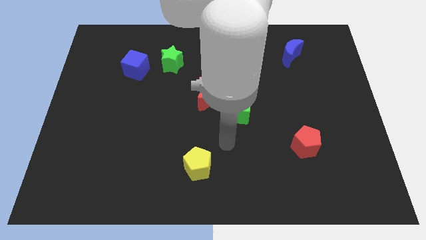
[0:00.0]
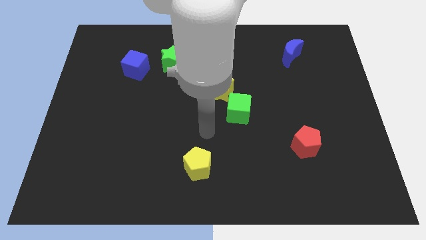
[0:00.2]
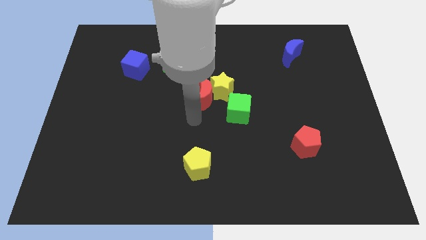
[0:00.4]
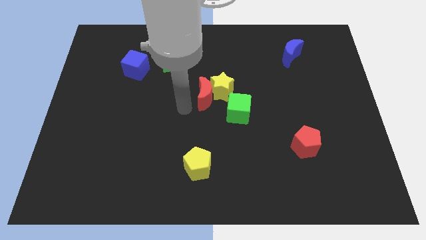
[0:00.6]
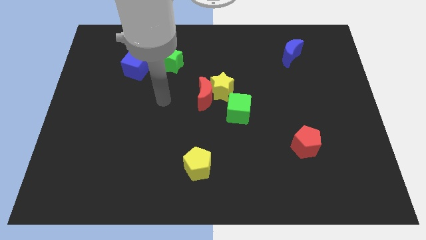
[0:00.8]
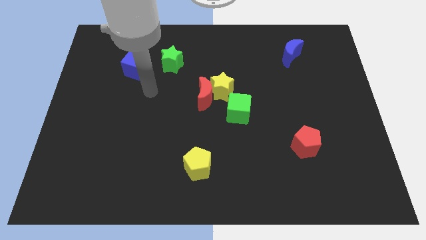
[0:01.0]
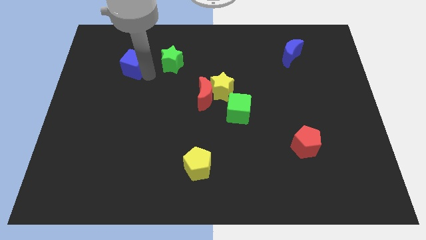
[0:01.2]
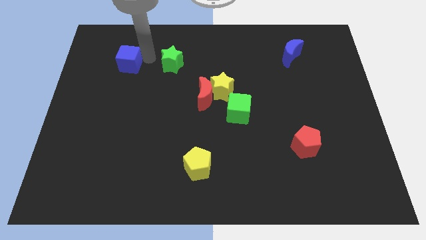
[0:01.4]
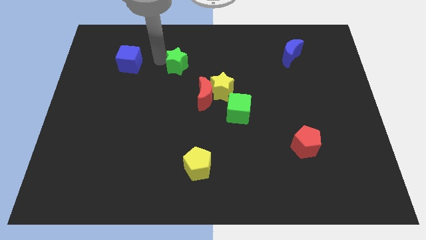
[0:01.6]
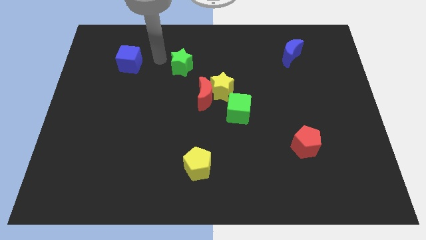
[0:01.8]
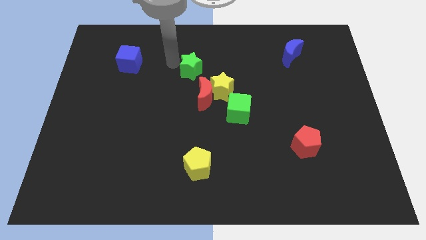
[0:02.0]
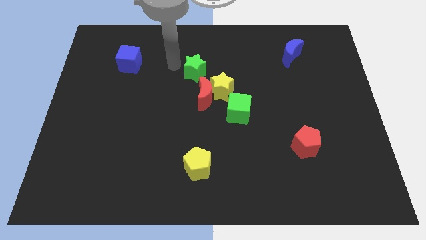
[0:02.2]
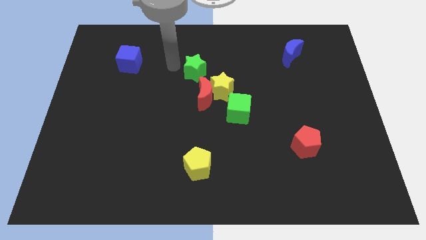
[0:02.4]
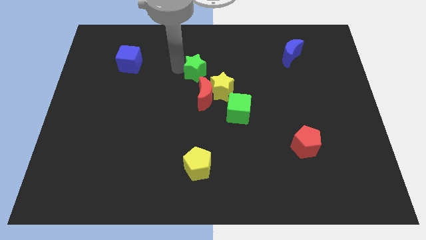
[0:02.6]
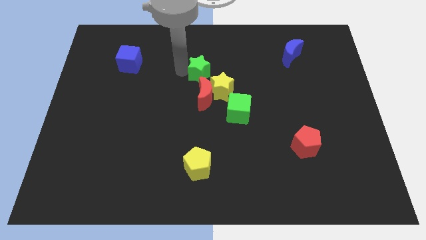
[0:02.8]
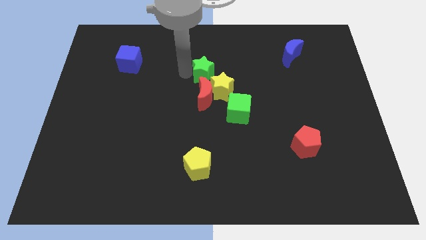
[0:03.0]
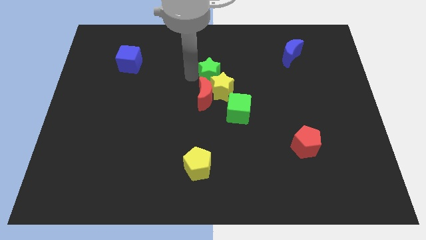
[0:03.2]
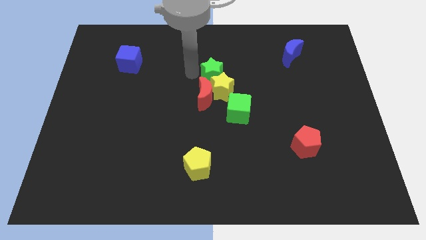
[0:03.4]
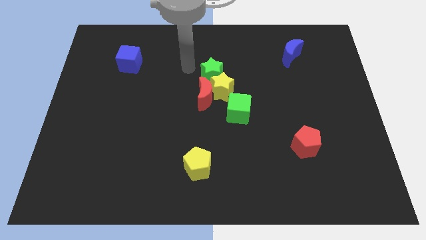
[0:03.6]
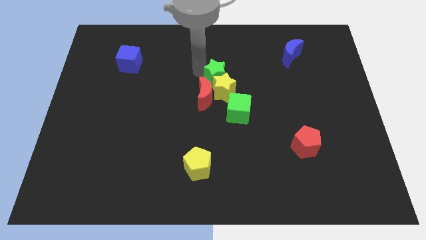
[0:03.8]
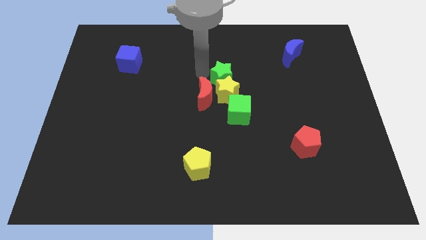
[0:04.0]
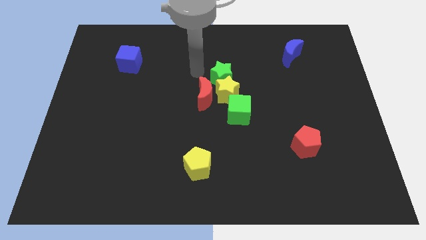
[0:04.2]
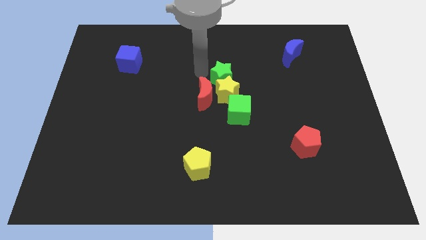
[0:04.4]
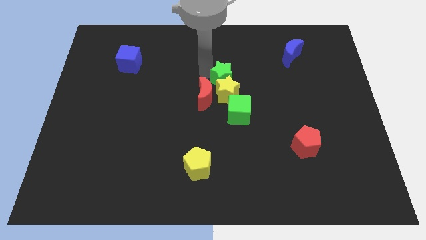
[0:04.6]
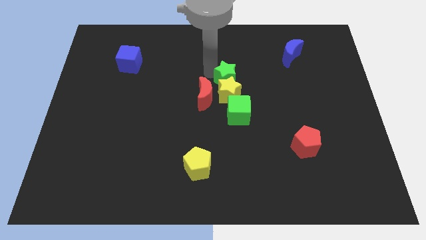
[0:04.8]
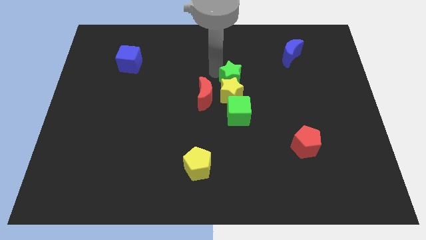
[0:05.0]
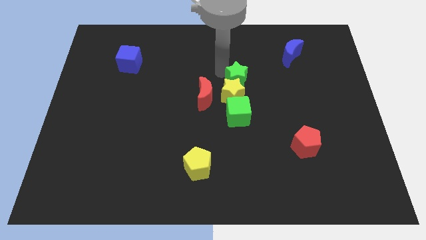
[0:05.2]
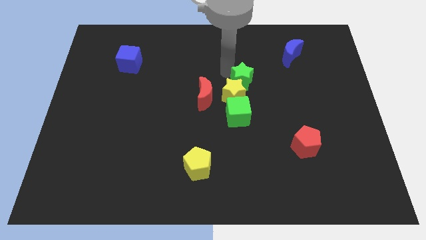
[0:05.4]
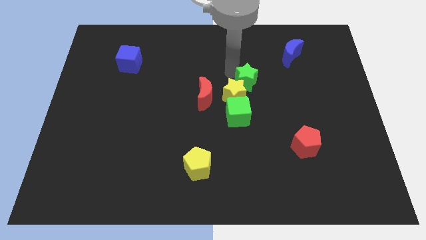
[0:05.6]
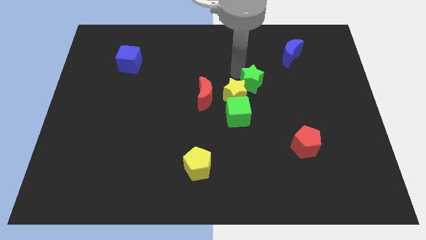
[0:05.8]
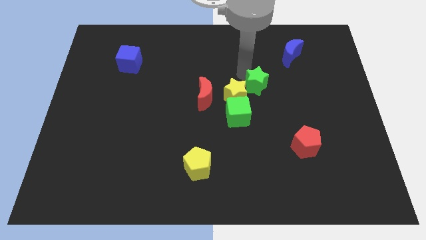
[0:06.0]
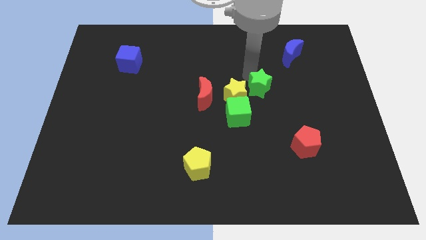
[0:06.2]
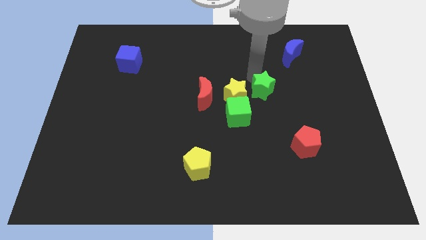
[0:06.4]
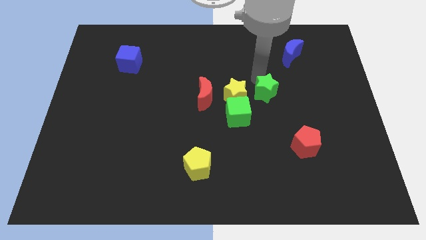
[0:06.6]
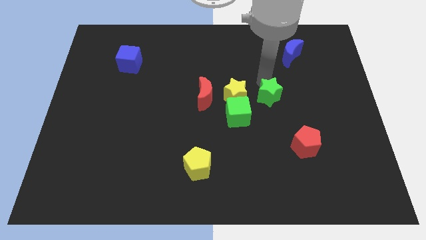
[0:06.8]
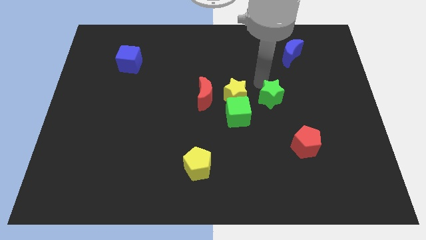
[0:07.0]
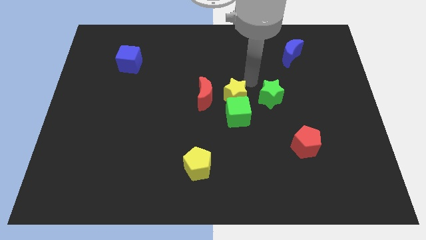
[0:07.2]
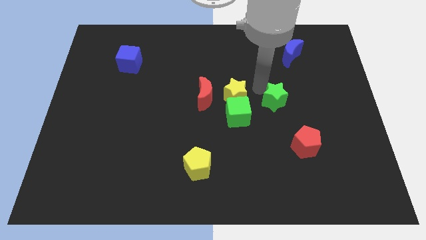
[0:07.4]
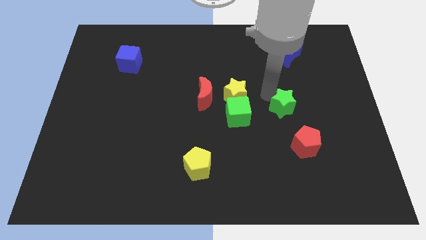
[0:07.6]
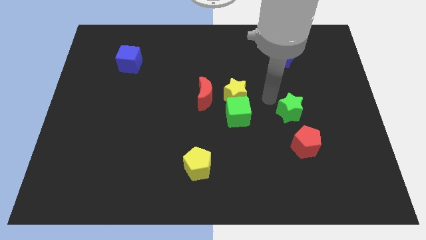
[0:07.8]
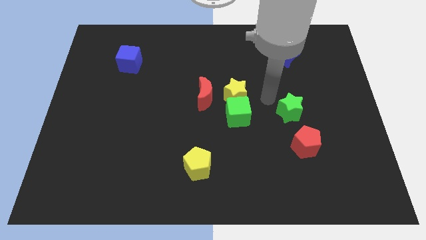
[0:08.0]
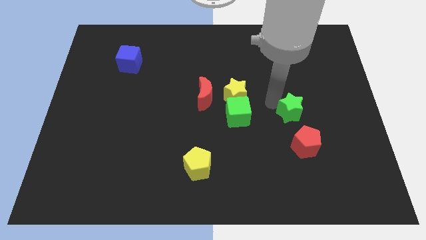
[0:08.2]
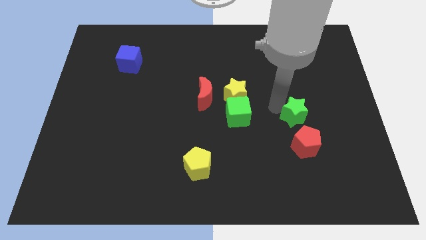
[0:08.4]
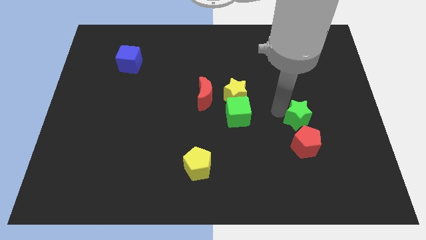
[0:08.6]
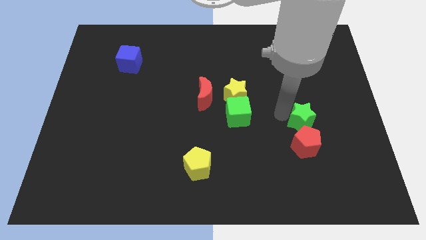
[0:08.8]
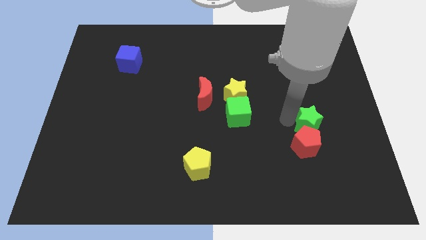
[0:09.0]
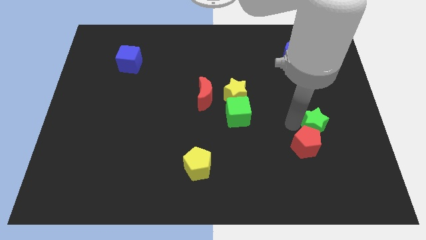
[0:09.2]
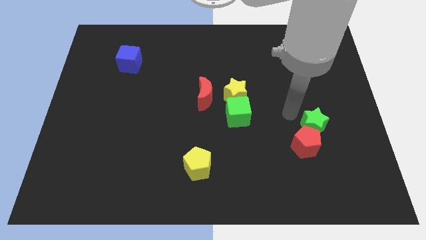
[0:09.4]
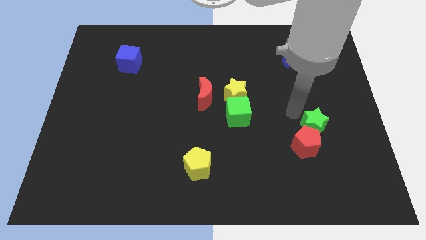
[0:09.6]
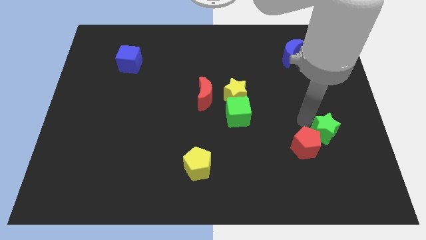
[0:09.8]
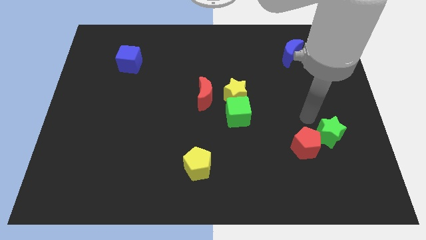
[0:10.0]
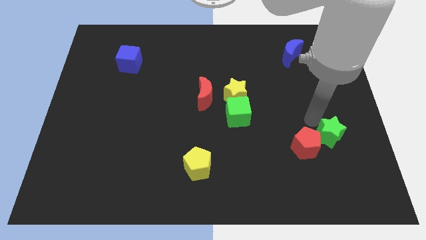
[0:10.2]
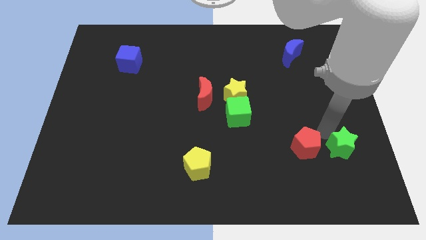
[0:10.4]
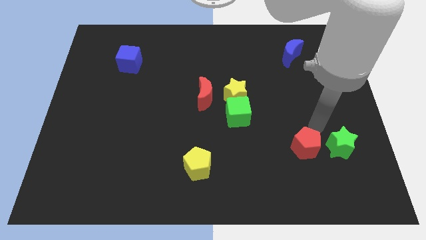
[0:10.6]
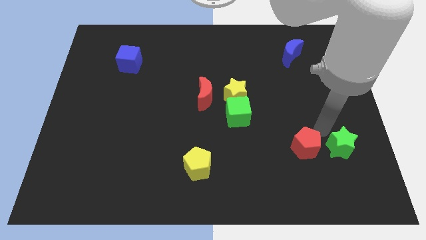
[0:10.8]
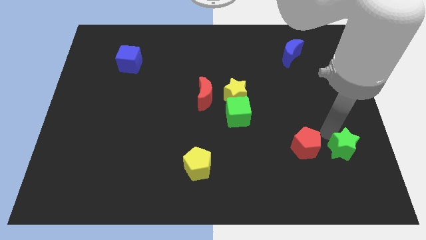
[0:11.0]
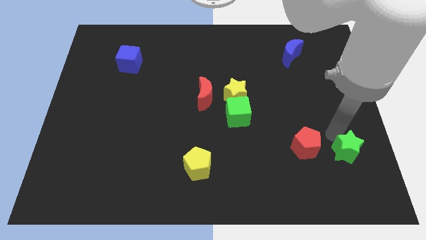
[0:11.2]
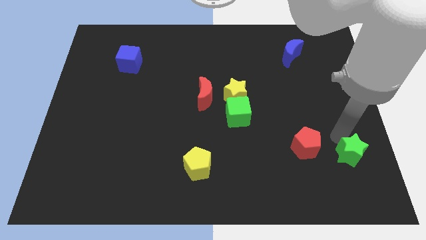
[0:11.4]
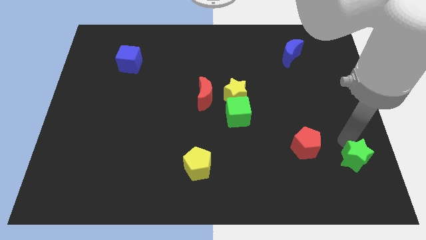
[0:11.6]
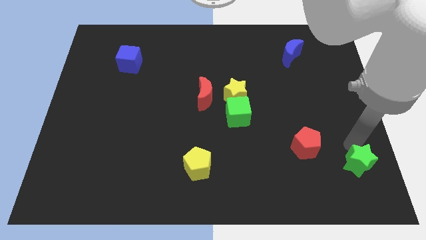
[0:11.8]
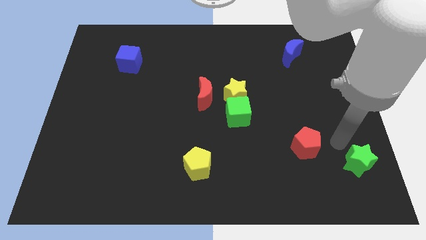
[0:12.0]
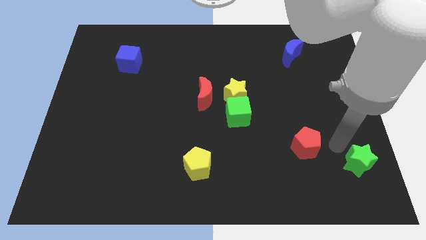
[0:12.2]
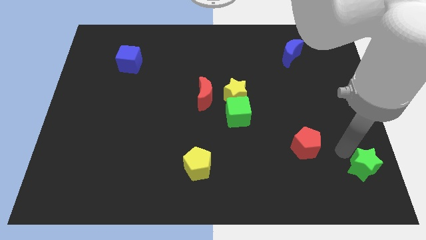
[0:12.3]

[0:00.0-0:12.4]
slide the green star to the bottom right corner

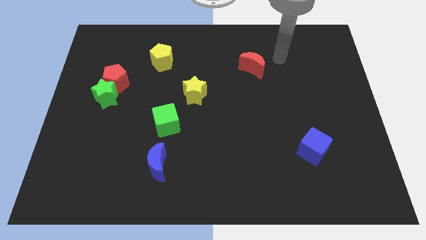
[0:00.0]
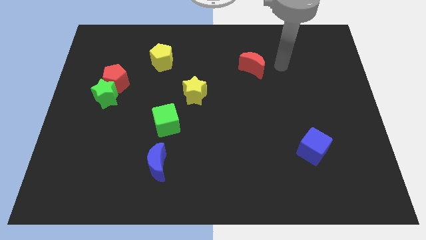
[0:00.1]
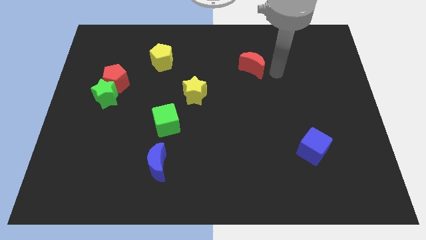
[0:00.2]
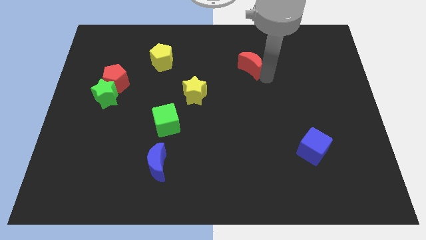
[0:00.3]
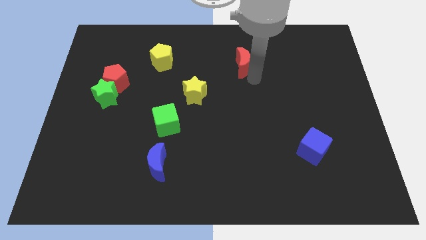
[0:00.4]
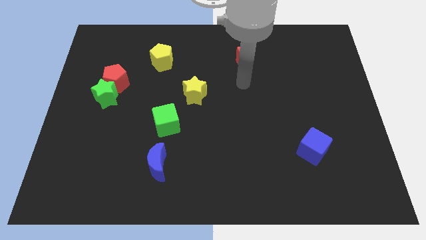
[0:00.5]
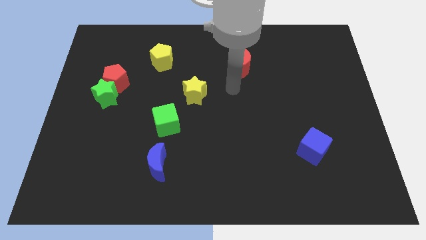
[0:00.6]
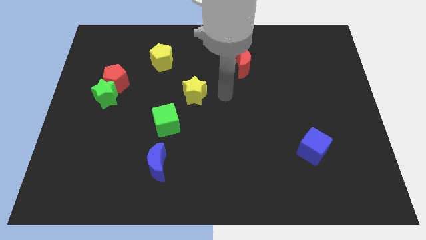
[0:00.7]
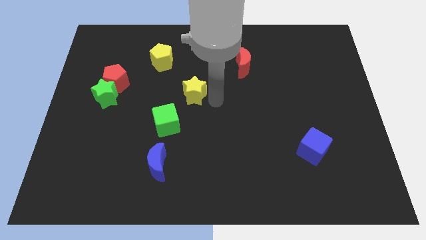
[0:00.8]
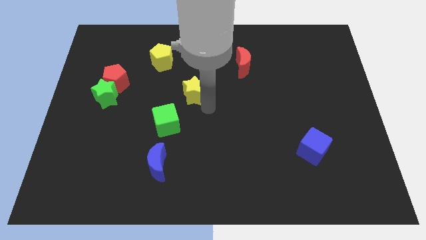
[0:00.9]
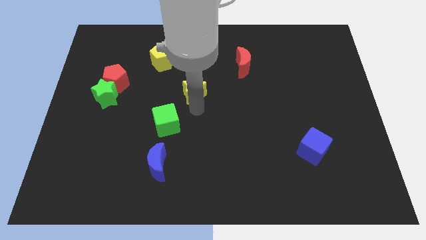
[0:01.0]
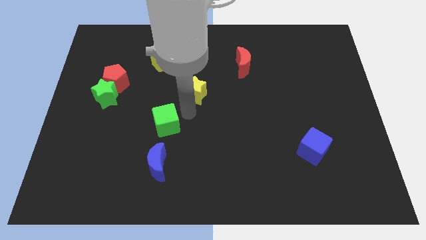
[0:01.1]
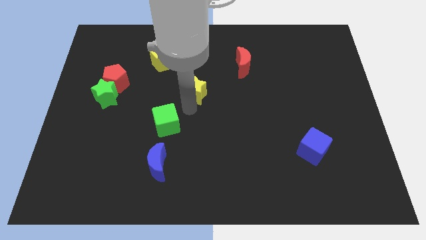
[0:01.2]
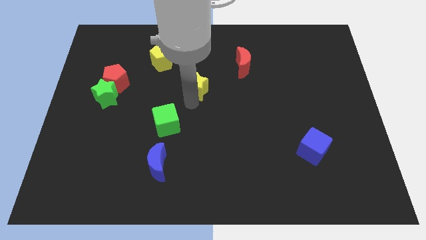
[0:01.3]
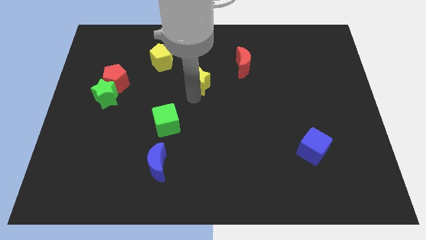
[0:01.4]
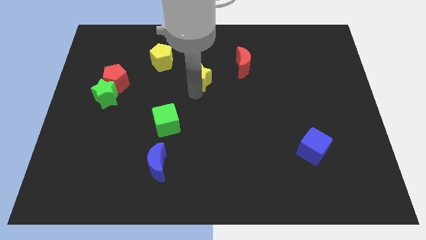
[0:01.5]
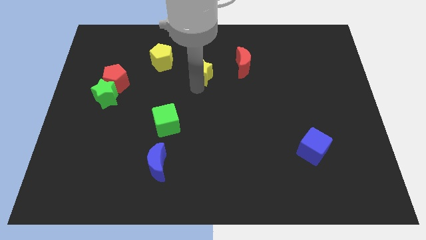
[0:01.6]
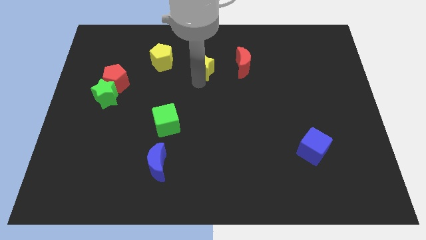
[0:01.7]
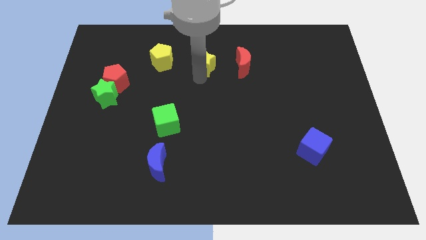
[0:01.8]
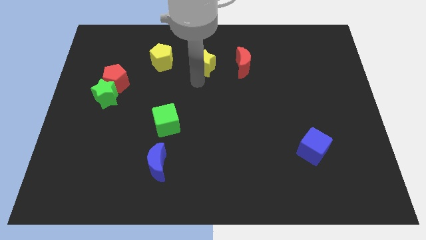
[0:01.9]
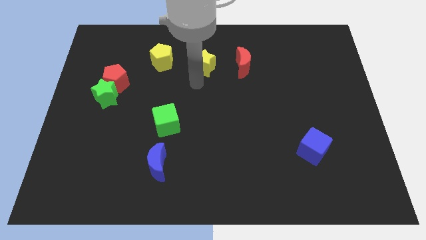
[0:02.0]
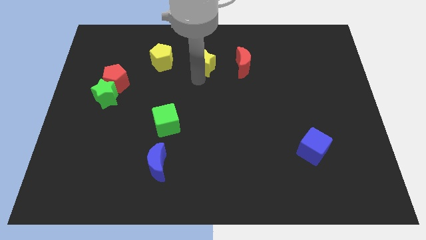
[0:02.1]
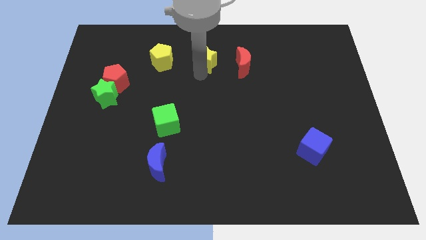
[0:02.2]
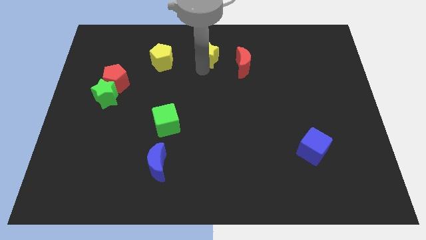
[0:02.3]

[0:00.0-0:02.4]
slide the yellow star to the top side
